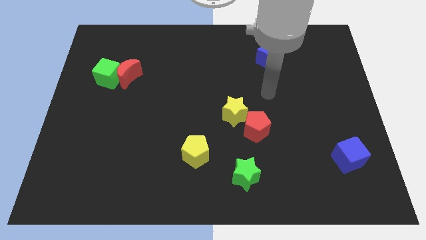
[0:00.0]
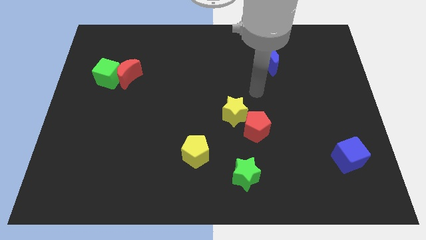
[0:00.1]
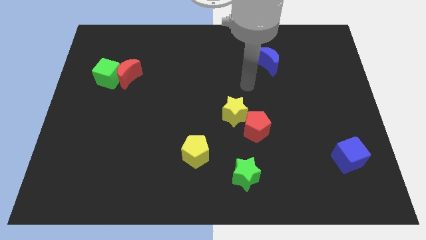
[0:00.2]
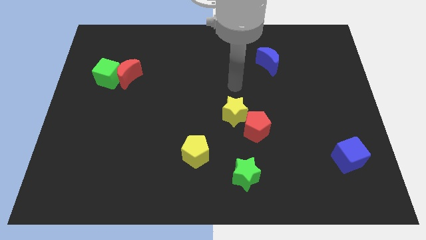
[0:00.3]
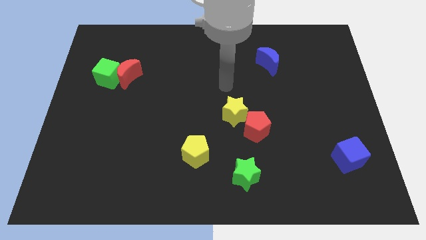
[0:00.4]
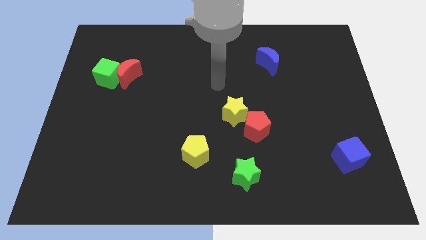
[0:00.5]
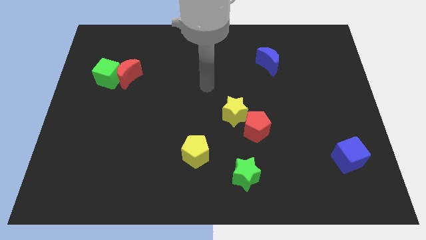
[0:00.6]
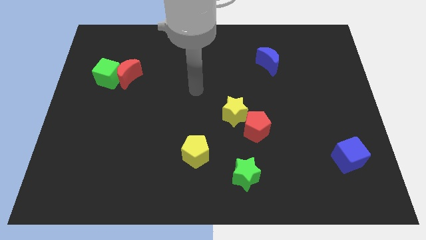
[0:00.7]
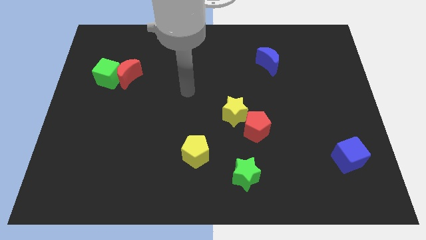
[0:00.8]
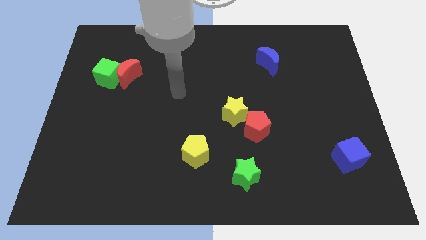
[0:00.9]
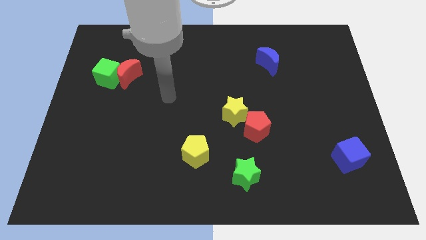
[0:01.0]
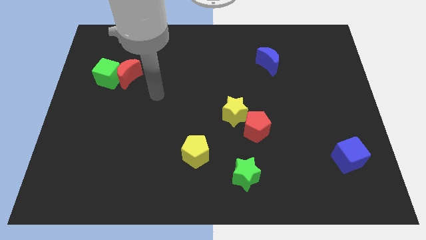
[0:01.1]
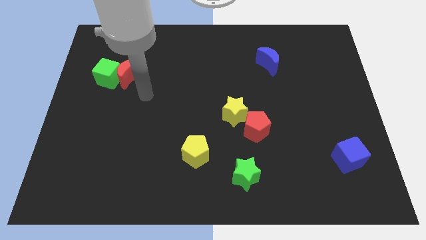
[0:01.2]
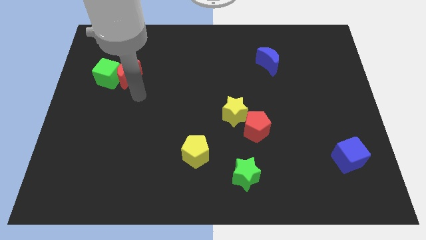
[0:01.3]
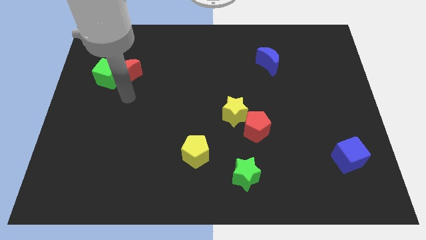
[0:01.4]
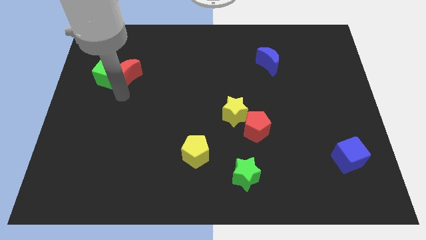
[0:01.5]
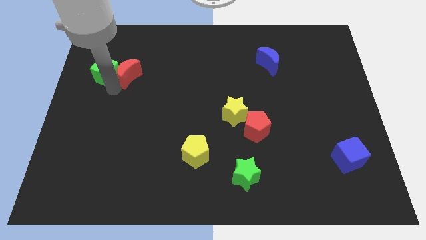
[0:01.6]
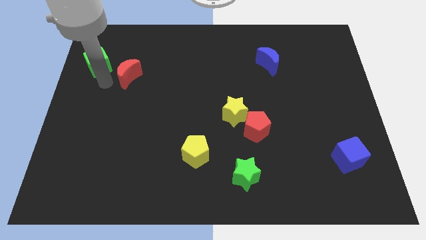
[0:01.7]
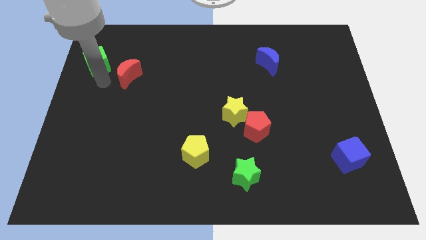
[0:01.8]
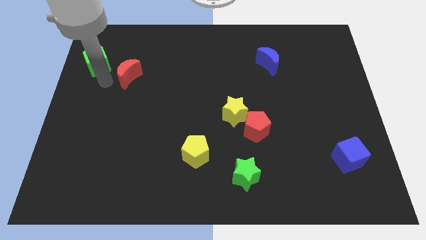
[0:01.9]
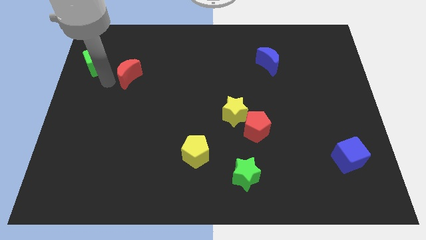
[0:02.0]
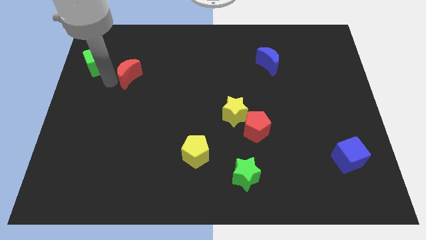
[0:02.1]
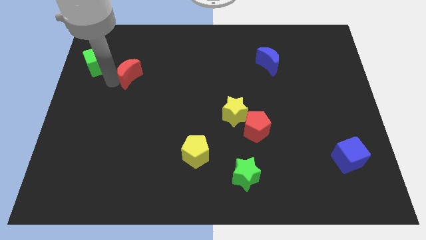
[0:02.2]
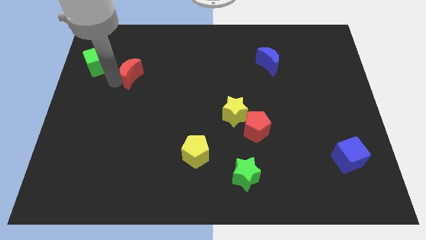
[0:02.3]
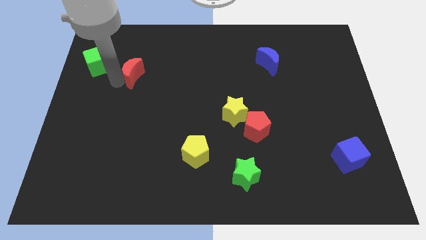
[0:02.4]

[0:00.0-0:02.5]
move the red moon away from the green cube

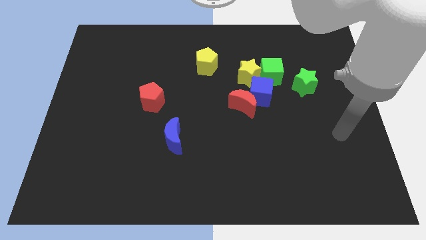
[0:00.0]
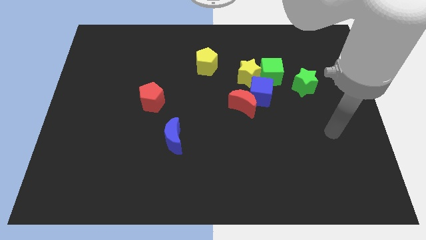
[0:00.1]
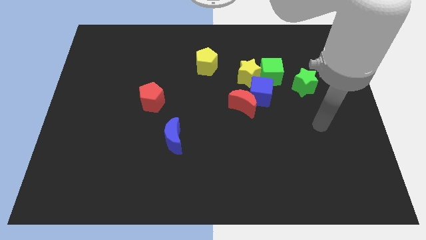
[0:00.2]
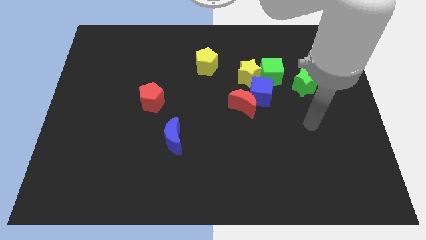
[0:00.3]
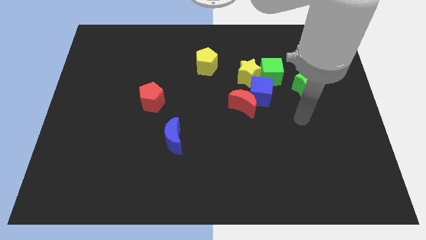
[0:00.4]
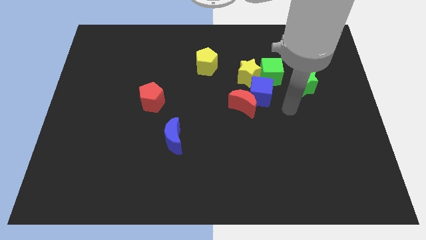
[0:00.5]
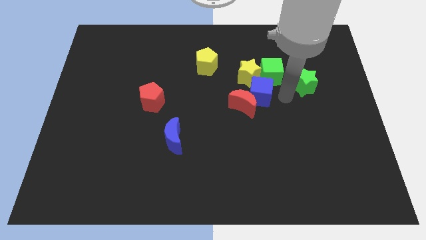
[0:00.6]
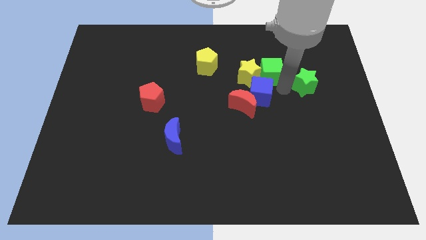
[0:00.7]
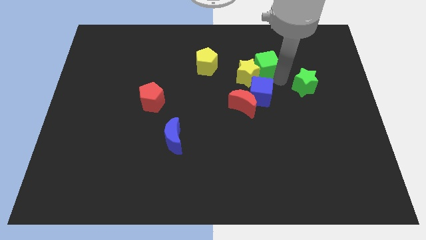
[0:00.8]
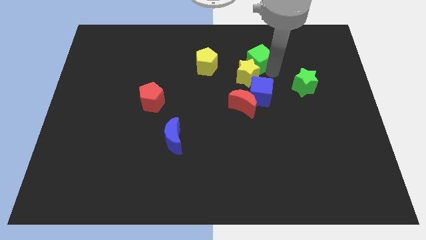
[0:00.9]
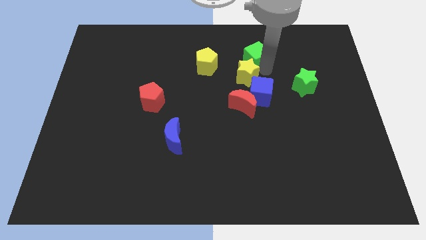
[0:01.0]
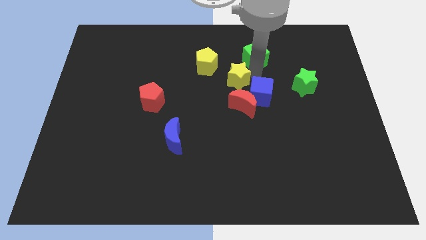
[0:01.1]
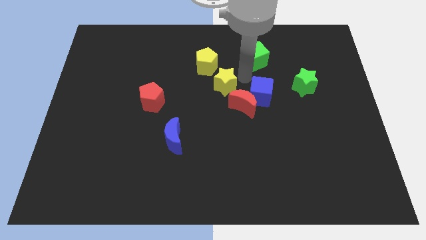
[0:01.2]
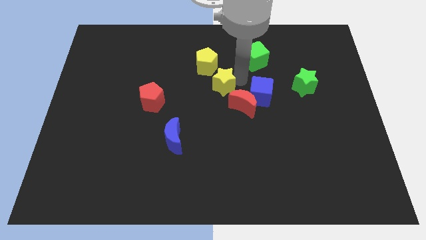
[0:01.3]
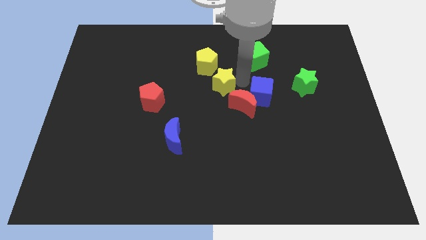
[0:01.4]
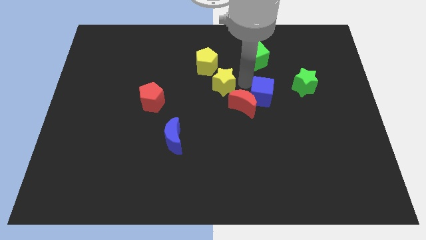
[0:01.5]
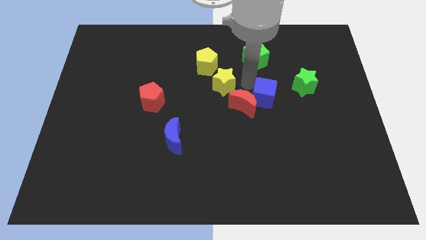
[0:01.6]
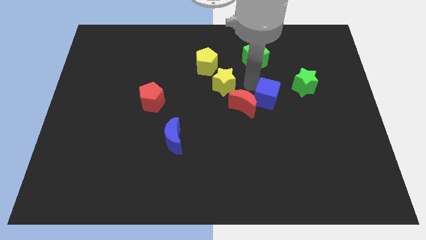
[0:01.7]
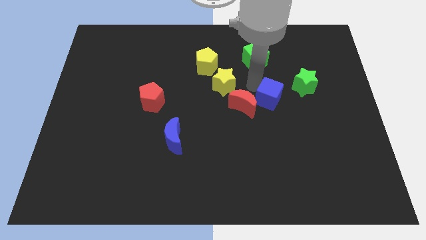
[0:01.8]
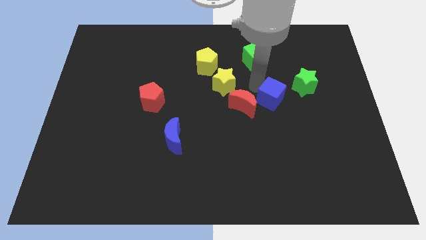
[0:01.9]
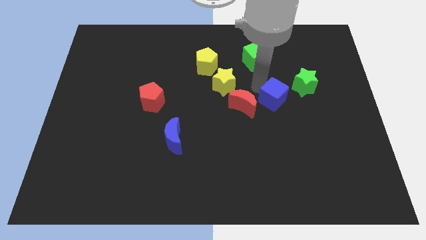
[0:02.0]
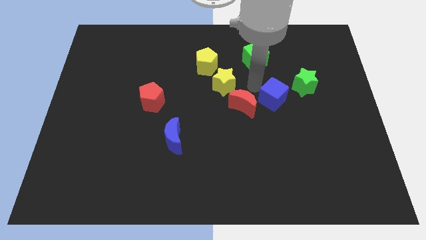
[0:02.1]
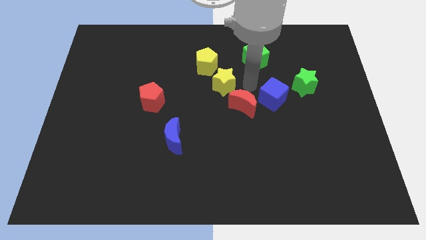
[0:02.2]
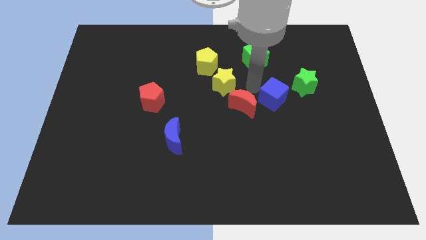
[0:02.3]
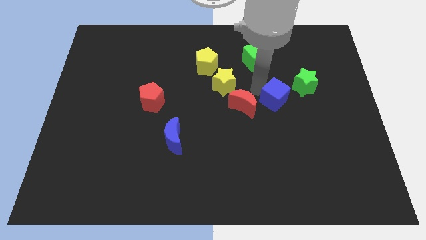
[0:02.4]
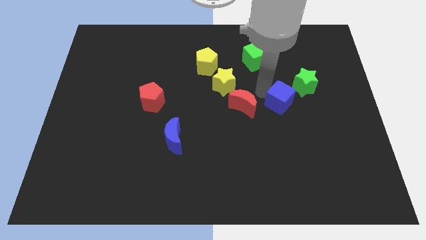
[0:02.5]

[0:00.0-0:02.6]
move the blue cube away from the red moon, yellow star, and green cube

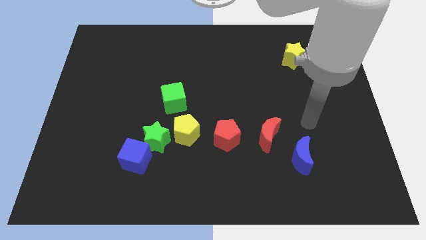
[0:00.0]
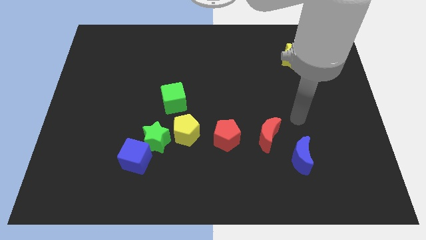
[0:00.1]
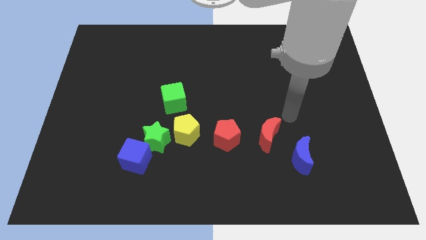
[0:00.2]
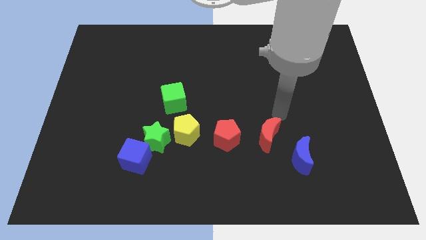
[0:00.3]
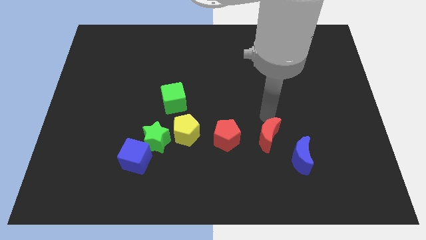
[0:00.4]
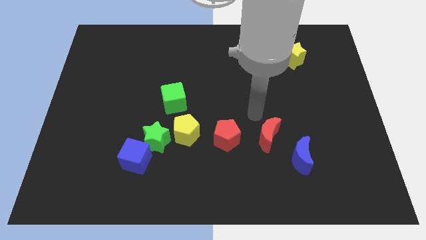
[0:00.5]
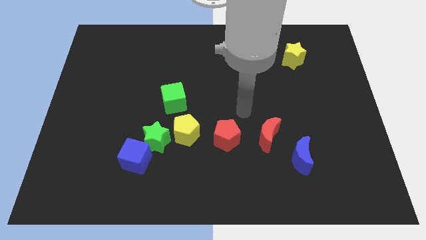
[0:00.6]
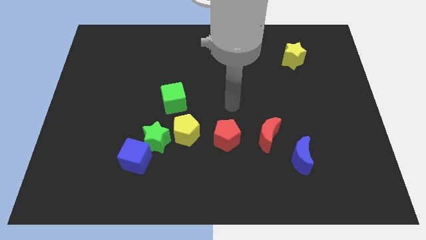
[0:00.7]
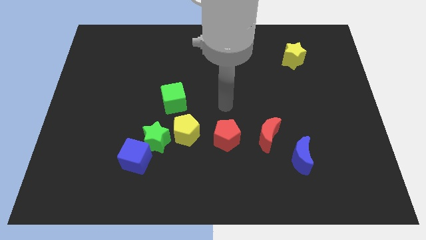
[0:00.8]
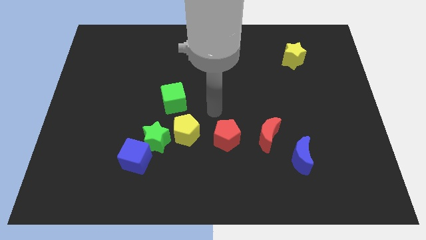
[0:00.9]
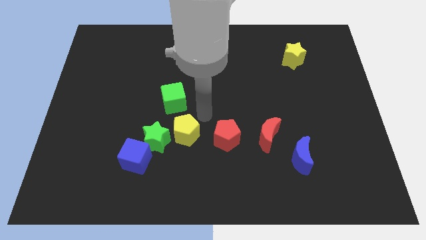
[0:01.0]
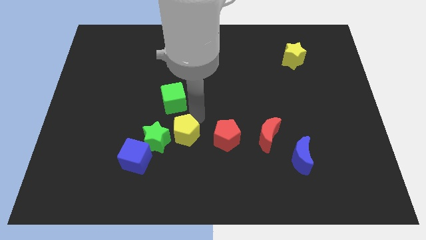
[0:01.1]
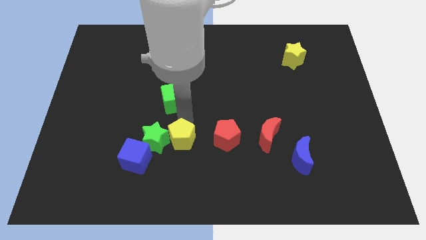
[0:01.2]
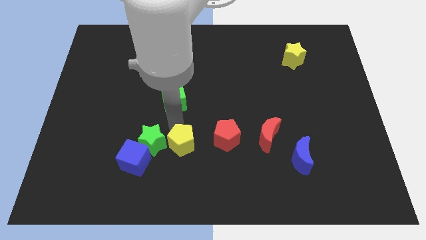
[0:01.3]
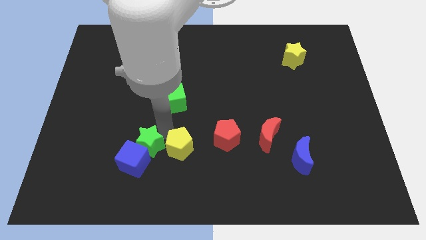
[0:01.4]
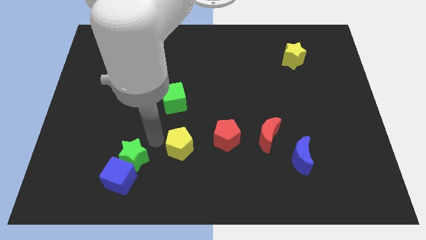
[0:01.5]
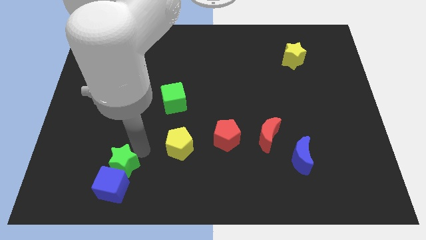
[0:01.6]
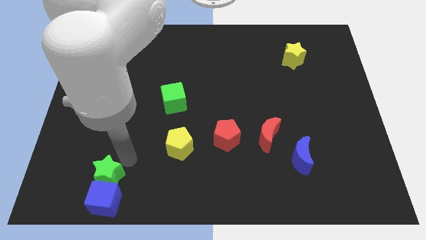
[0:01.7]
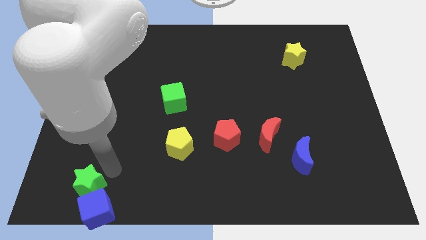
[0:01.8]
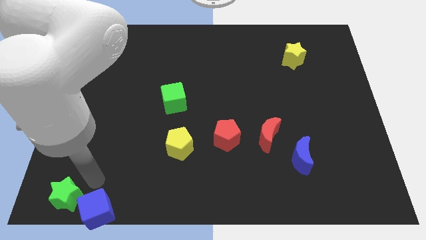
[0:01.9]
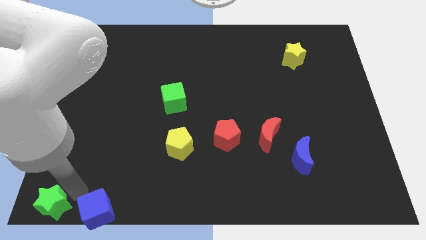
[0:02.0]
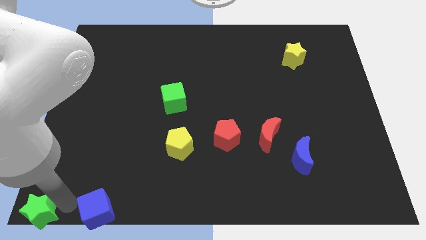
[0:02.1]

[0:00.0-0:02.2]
move the blue cube away from the green star

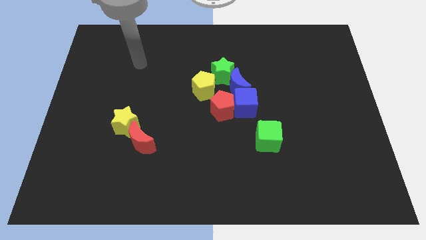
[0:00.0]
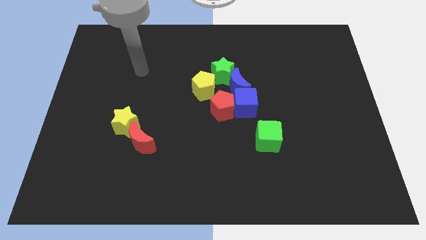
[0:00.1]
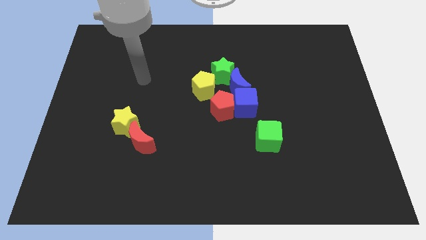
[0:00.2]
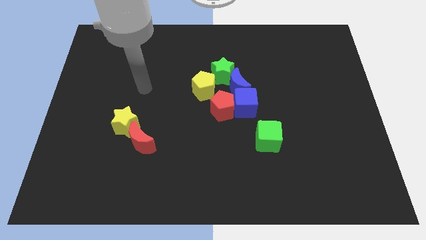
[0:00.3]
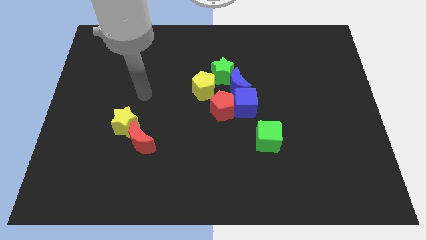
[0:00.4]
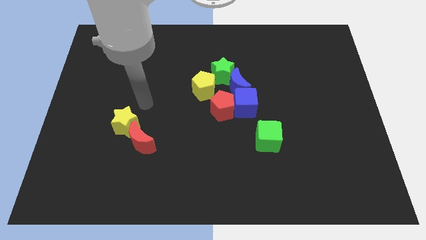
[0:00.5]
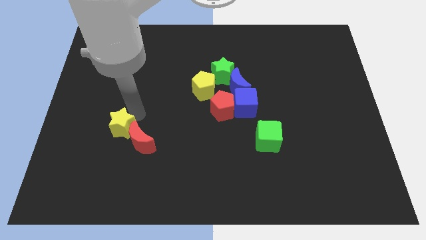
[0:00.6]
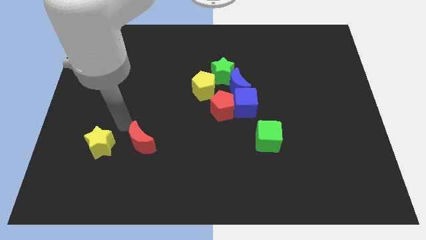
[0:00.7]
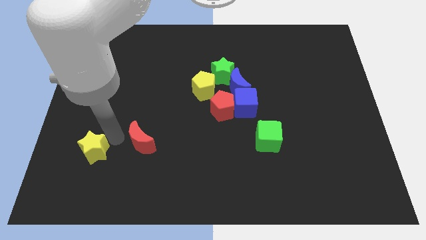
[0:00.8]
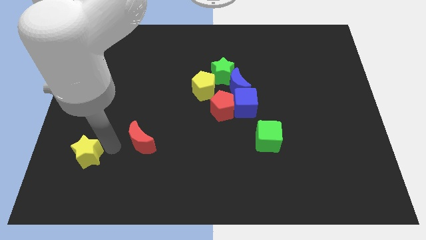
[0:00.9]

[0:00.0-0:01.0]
separate the red moon from the yellow star

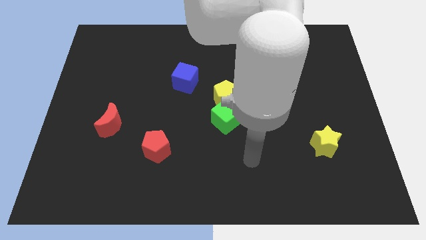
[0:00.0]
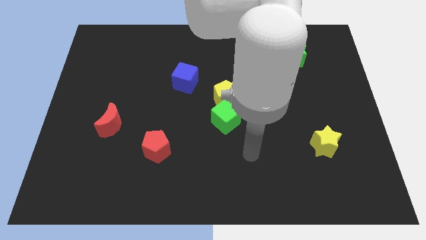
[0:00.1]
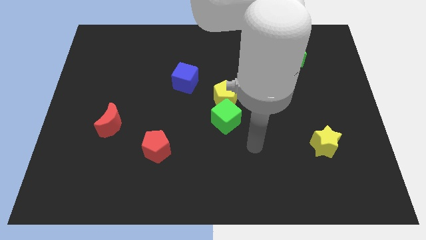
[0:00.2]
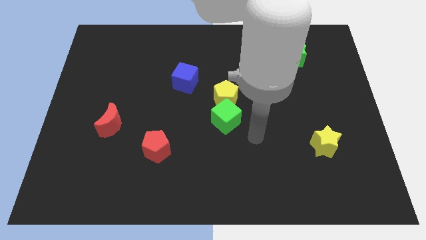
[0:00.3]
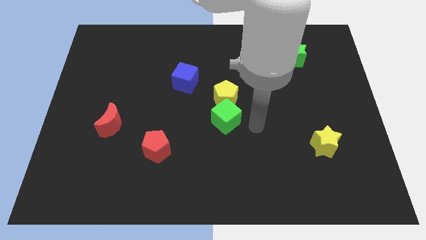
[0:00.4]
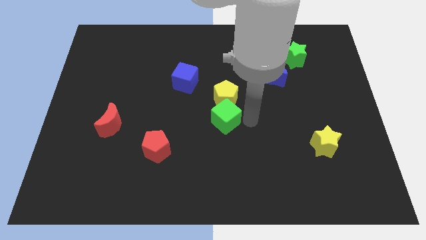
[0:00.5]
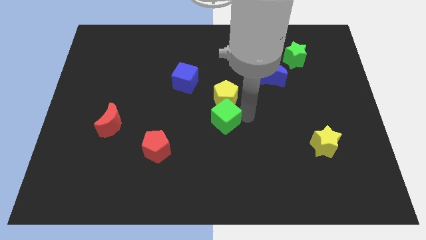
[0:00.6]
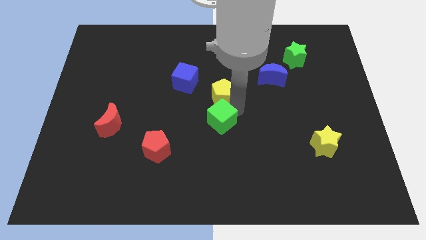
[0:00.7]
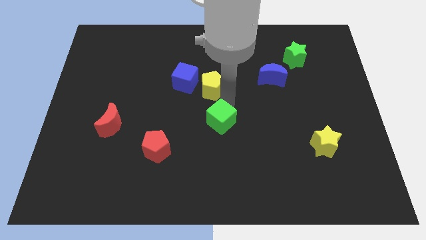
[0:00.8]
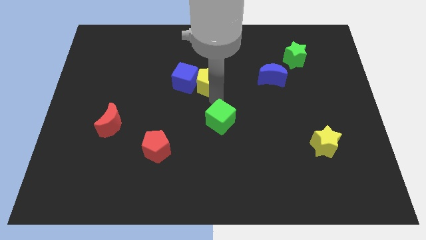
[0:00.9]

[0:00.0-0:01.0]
move the green cube away from the yellow pentagon
